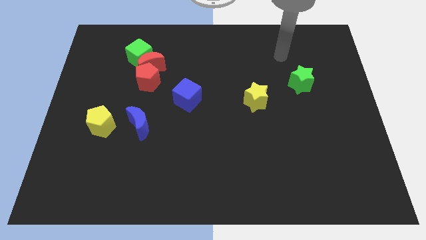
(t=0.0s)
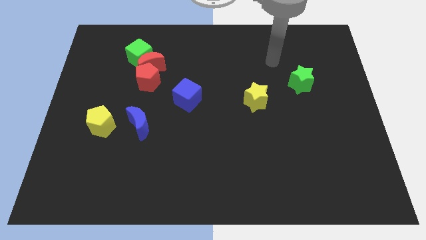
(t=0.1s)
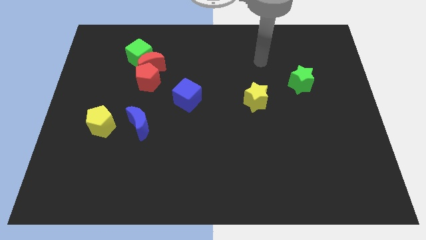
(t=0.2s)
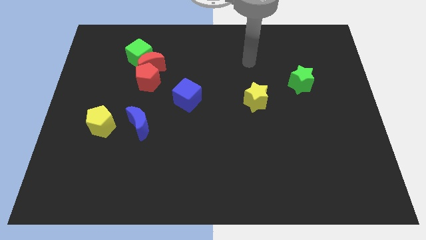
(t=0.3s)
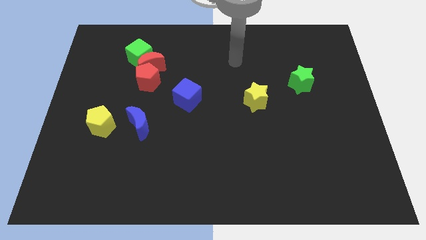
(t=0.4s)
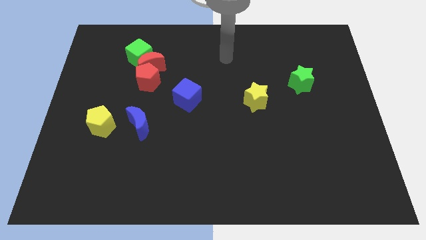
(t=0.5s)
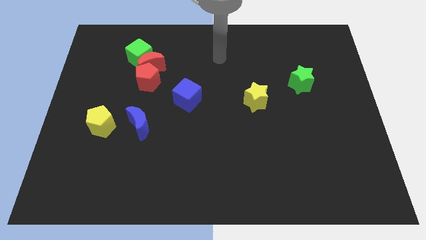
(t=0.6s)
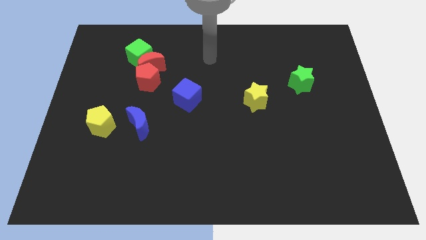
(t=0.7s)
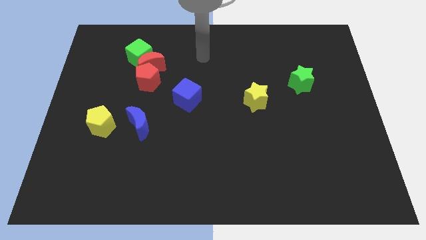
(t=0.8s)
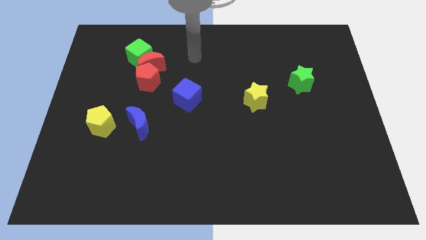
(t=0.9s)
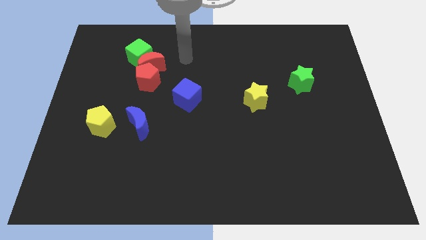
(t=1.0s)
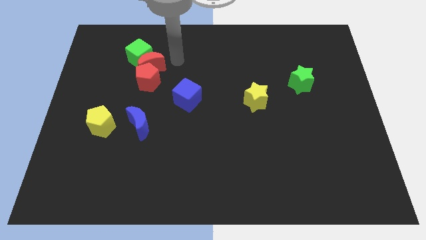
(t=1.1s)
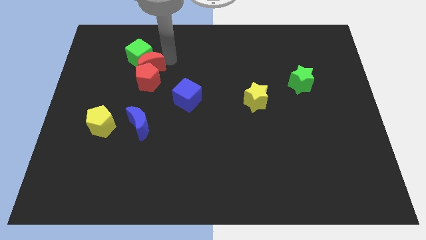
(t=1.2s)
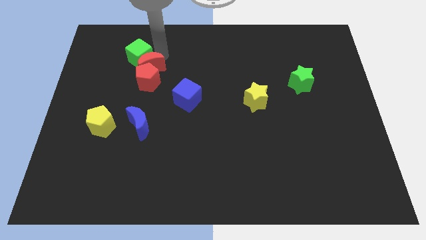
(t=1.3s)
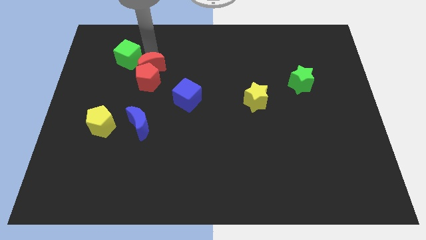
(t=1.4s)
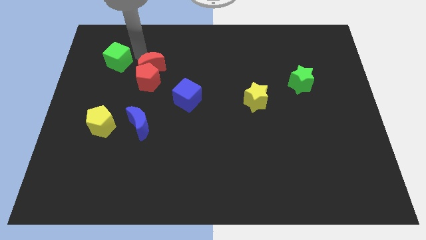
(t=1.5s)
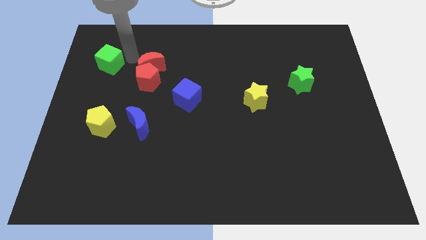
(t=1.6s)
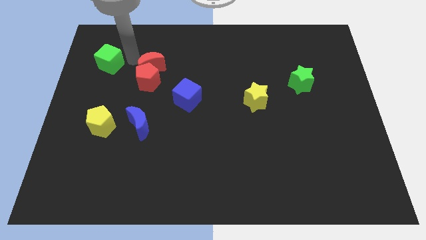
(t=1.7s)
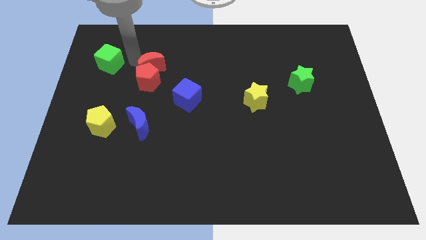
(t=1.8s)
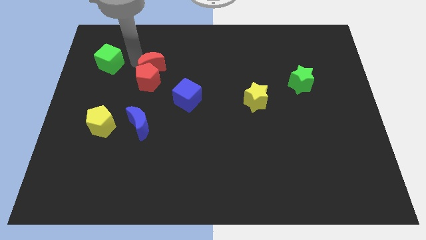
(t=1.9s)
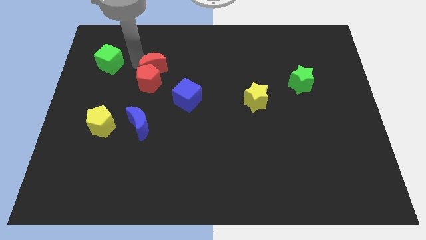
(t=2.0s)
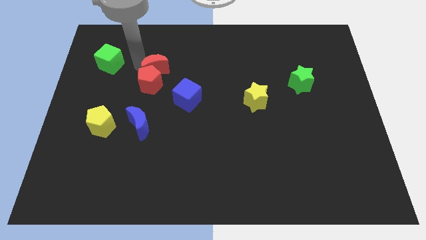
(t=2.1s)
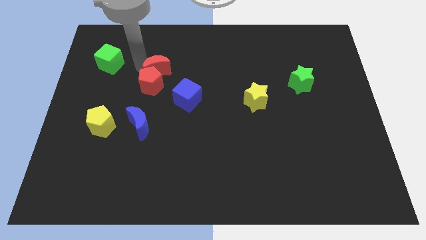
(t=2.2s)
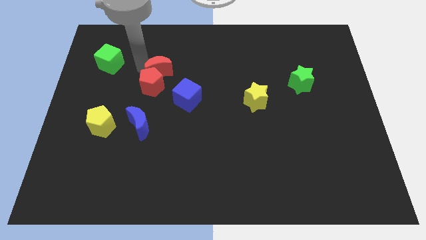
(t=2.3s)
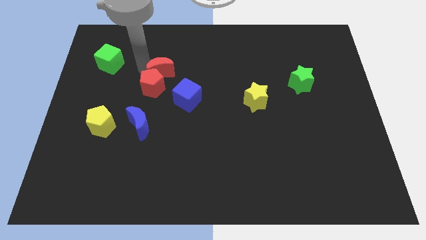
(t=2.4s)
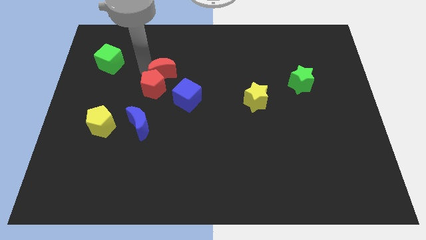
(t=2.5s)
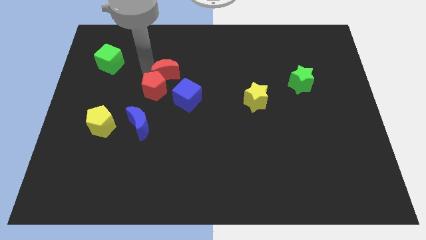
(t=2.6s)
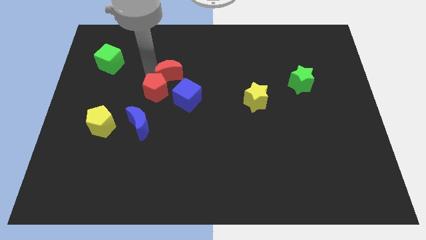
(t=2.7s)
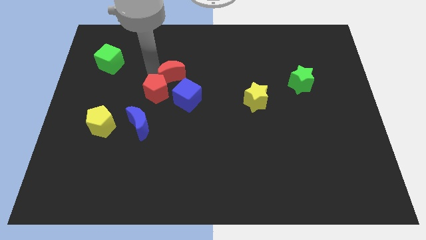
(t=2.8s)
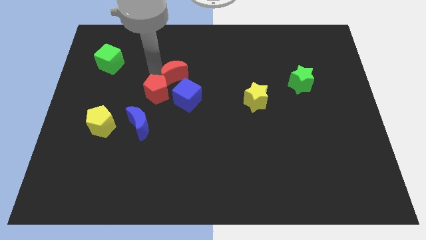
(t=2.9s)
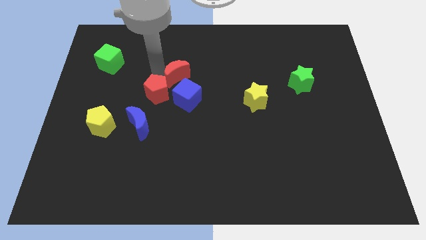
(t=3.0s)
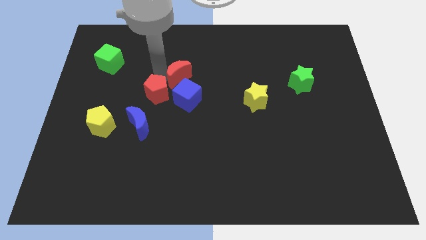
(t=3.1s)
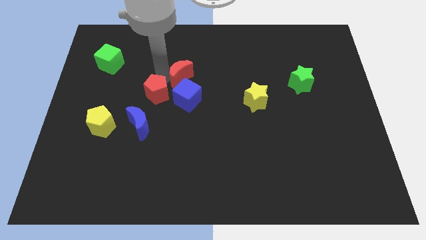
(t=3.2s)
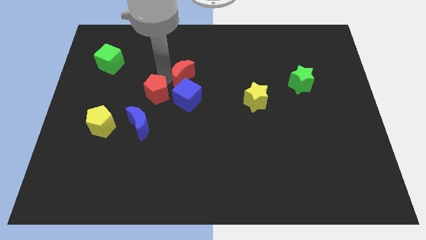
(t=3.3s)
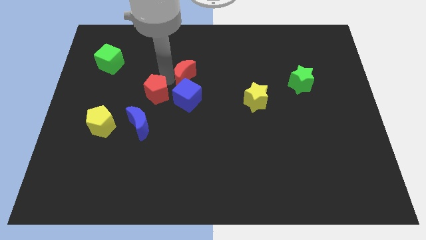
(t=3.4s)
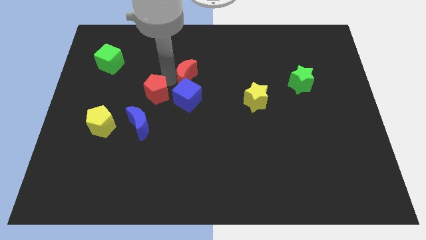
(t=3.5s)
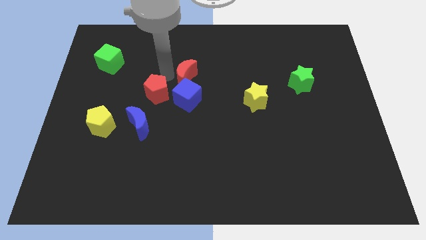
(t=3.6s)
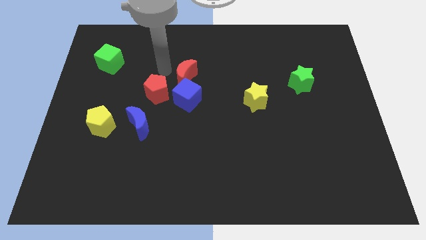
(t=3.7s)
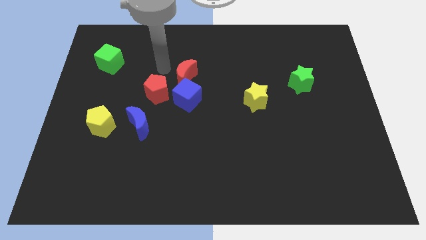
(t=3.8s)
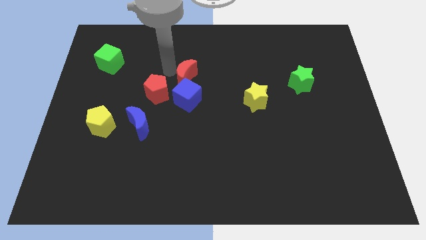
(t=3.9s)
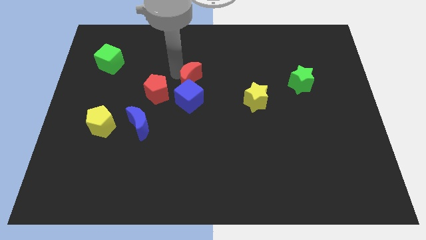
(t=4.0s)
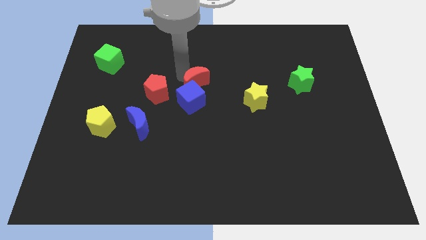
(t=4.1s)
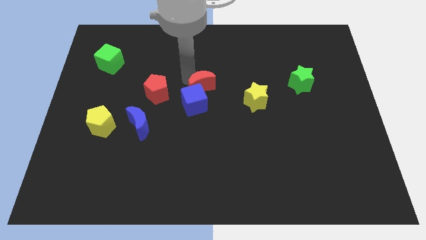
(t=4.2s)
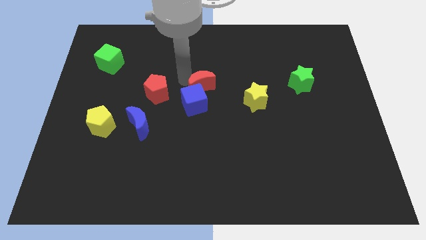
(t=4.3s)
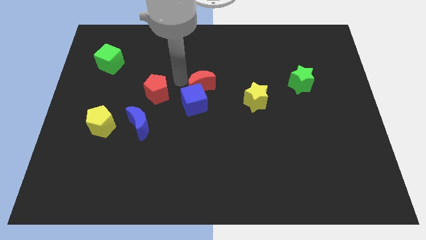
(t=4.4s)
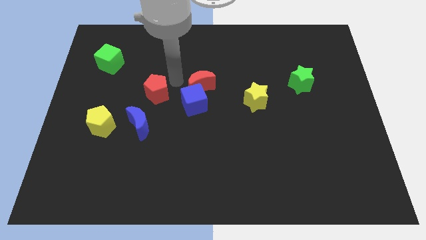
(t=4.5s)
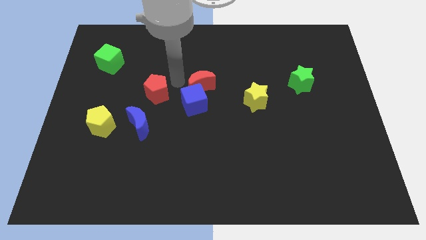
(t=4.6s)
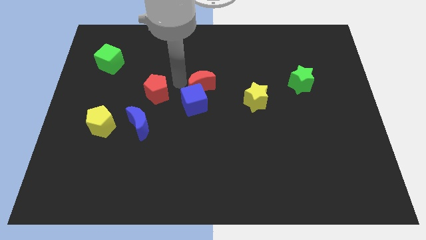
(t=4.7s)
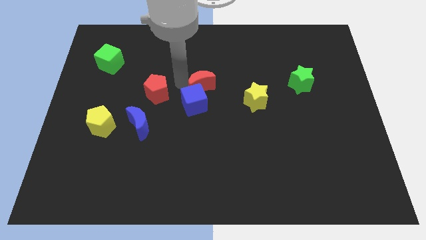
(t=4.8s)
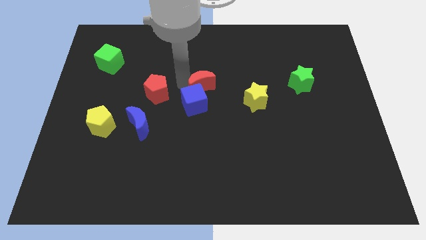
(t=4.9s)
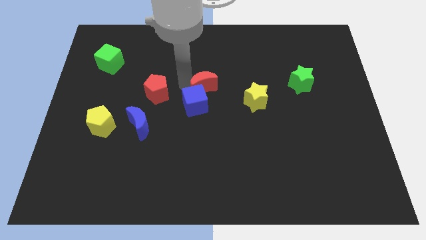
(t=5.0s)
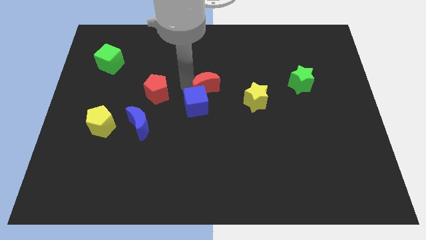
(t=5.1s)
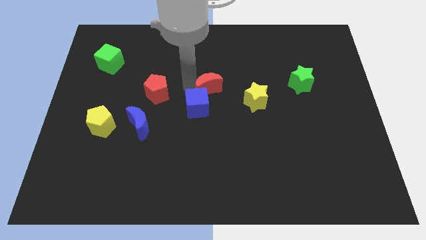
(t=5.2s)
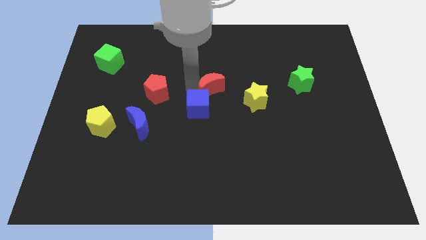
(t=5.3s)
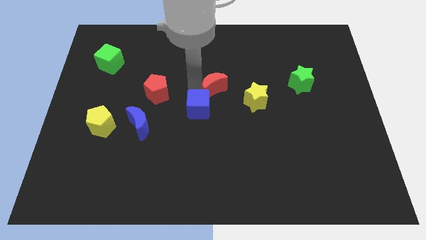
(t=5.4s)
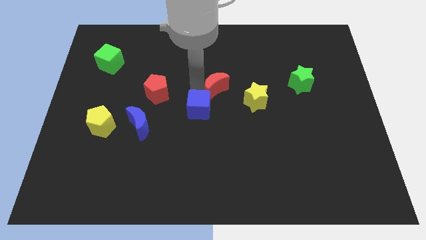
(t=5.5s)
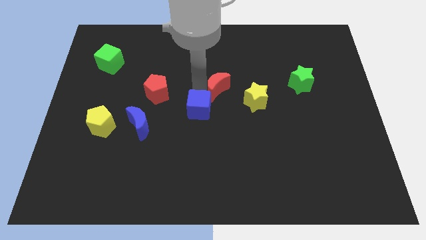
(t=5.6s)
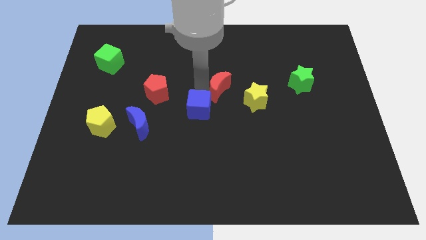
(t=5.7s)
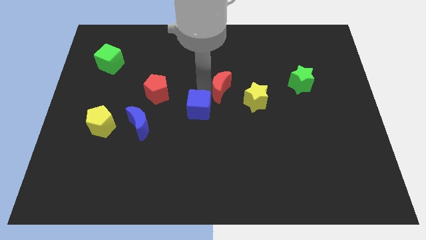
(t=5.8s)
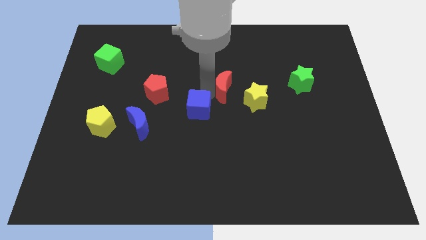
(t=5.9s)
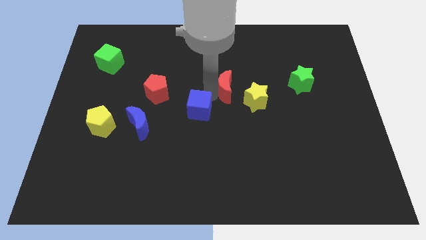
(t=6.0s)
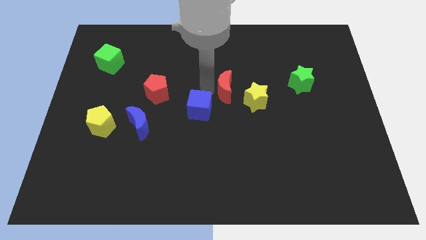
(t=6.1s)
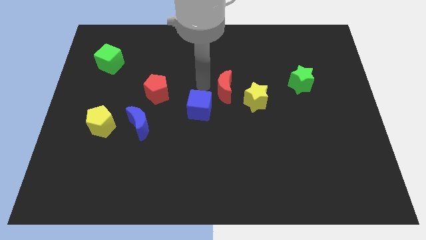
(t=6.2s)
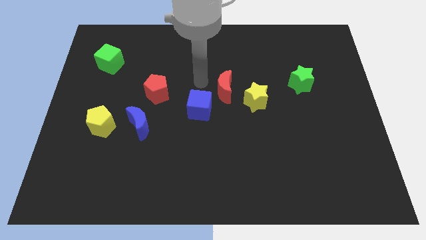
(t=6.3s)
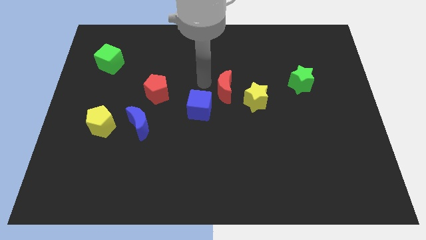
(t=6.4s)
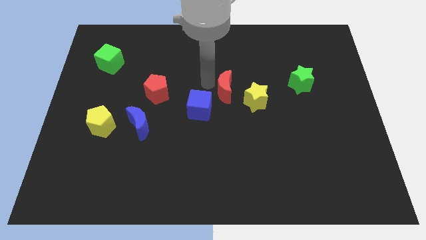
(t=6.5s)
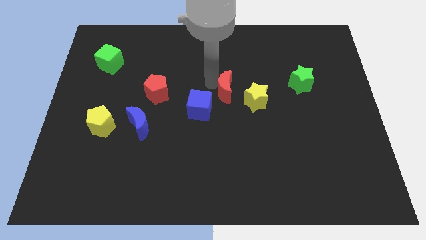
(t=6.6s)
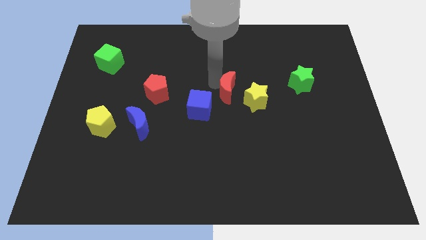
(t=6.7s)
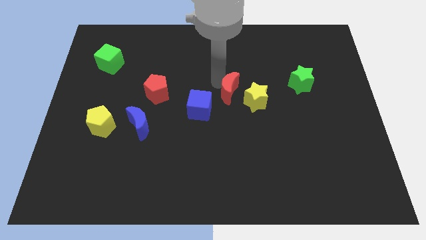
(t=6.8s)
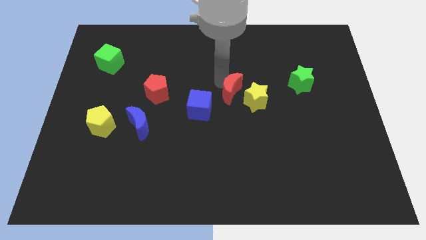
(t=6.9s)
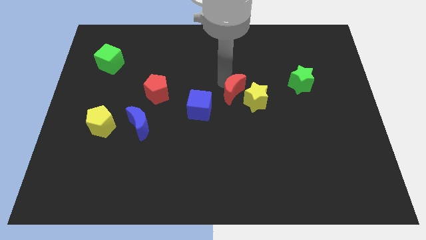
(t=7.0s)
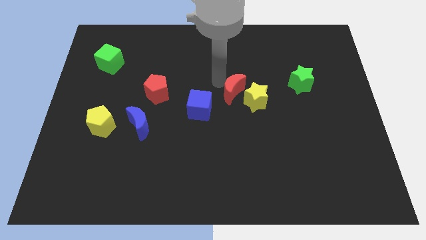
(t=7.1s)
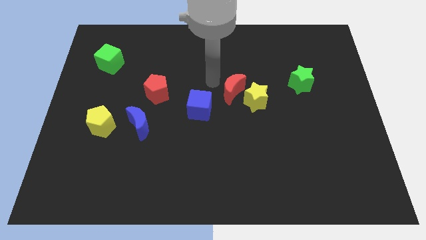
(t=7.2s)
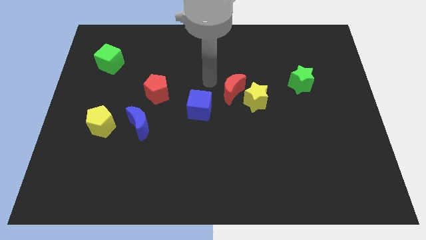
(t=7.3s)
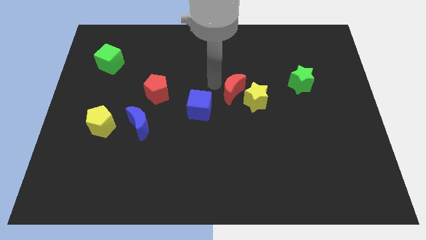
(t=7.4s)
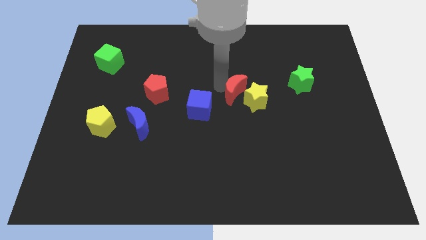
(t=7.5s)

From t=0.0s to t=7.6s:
move the red moon to the yellow star
